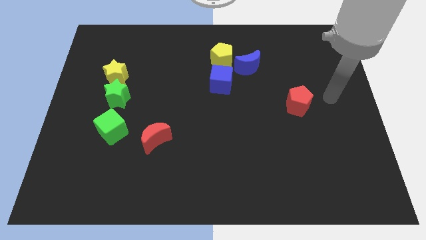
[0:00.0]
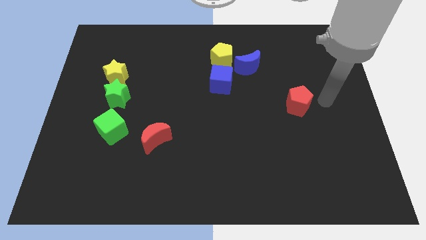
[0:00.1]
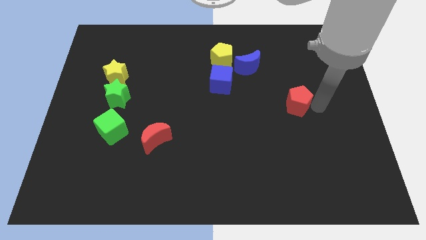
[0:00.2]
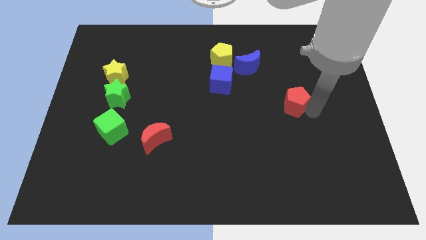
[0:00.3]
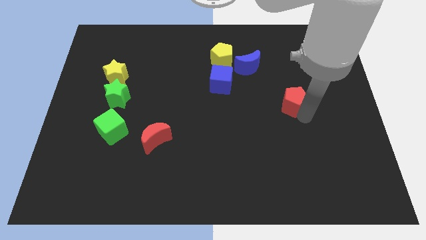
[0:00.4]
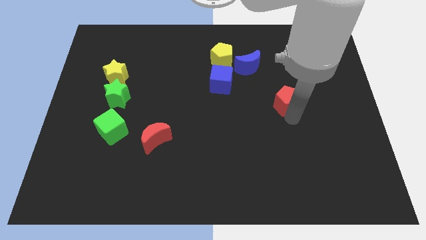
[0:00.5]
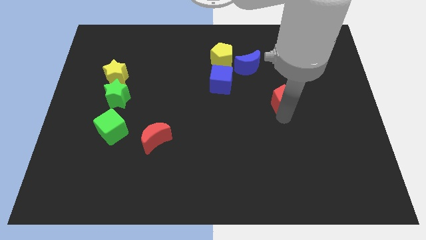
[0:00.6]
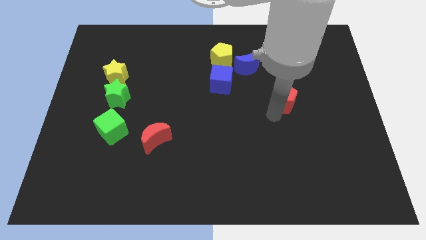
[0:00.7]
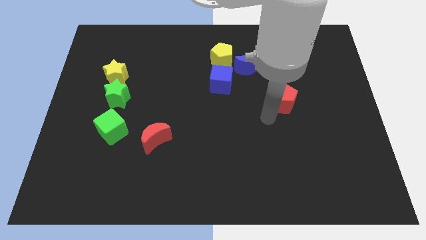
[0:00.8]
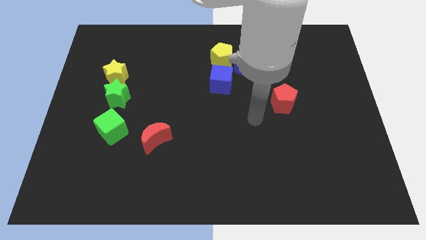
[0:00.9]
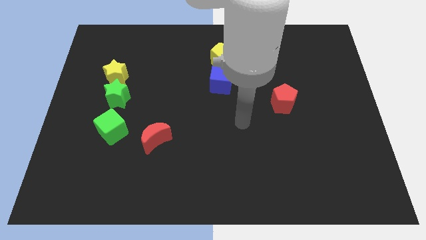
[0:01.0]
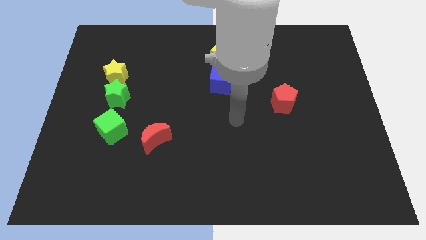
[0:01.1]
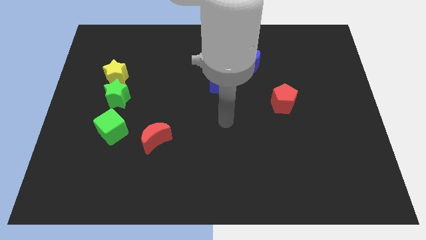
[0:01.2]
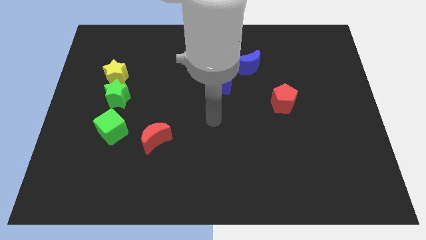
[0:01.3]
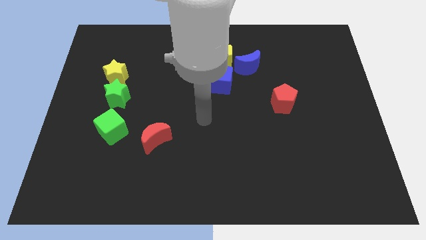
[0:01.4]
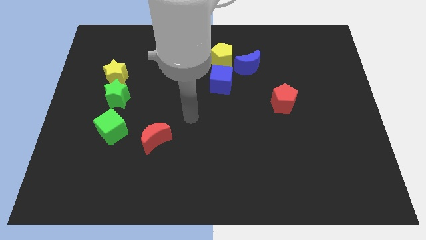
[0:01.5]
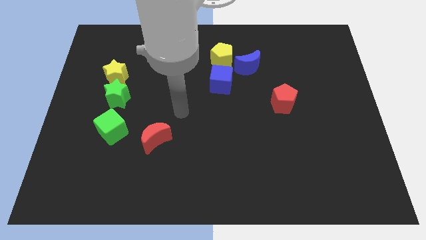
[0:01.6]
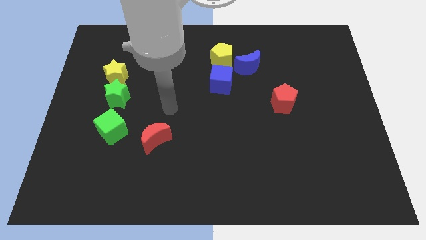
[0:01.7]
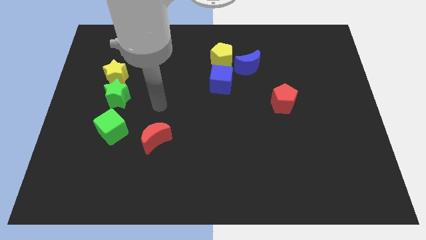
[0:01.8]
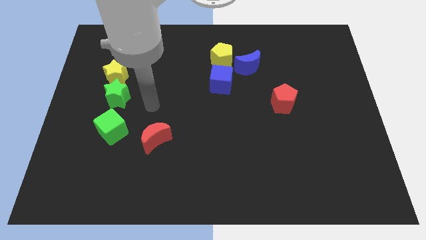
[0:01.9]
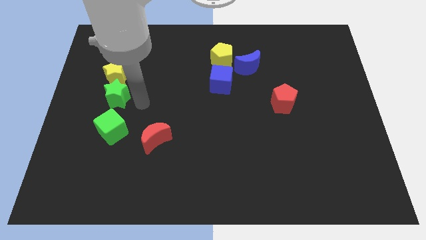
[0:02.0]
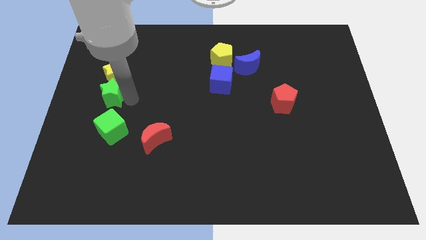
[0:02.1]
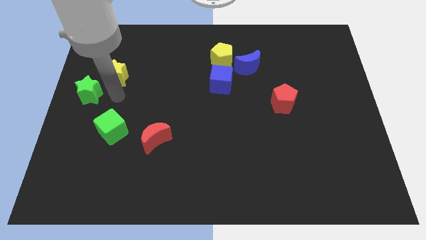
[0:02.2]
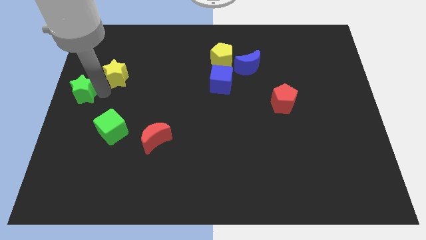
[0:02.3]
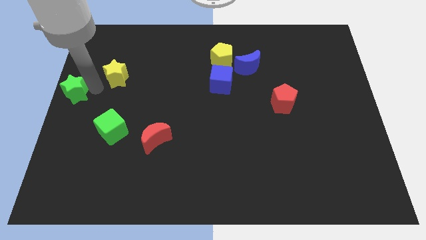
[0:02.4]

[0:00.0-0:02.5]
pull the yellow star apart from the green star

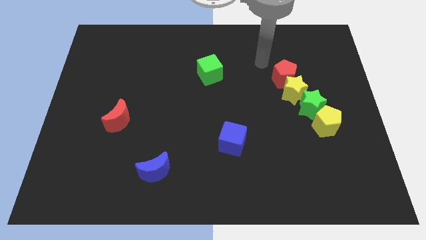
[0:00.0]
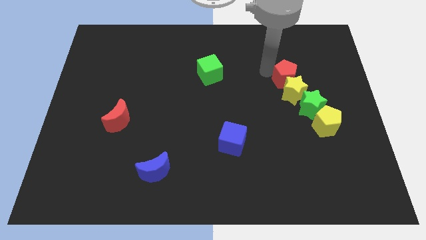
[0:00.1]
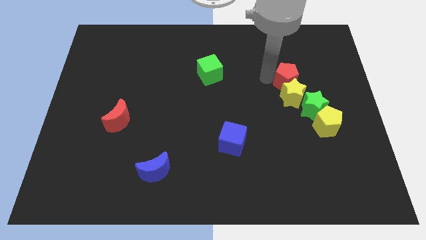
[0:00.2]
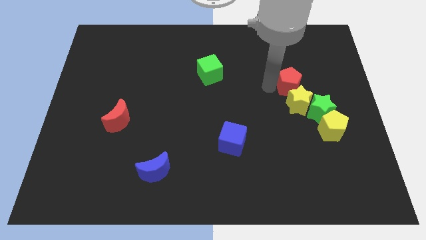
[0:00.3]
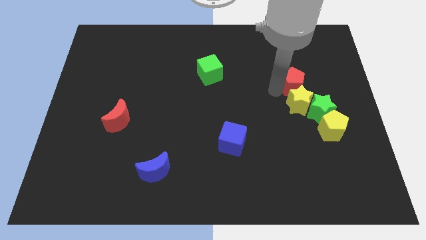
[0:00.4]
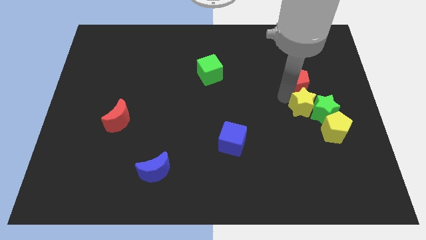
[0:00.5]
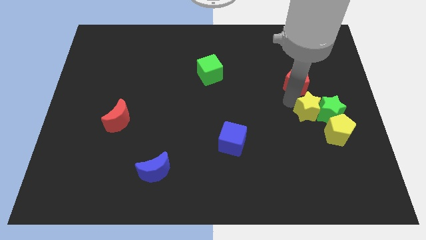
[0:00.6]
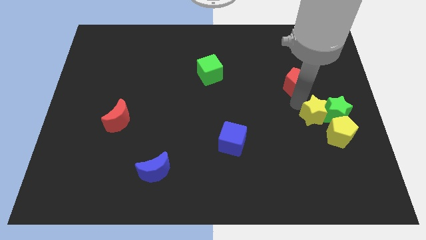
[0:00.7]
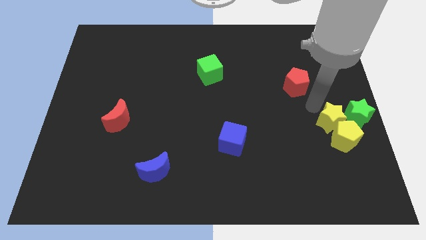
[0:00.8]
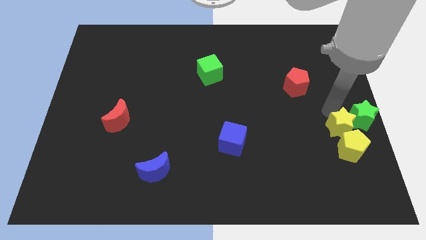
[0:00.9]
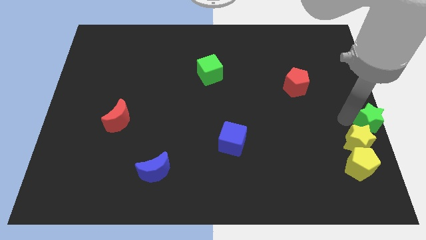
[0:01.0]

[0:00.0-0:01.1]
separate the yellow pentagon from the green star

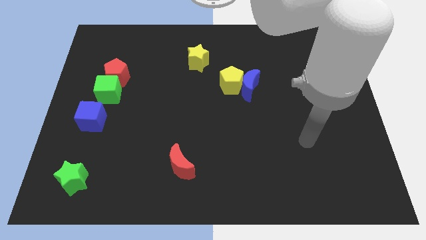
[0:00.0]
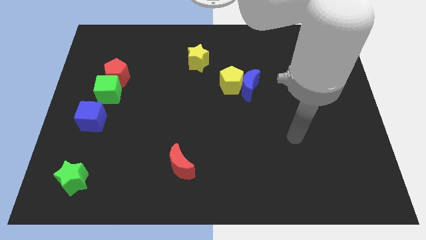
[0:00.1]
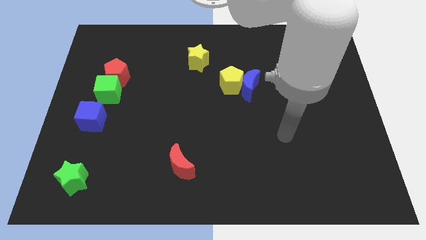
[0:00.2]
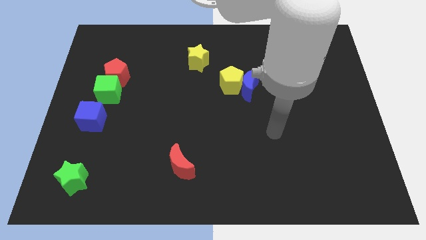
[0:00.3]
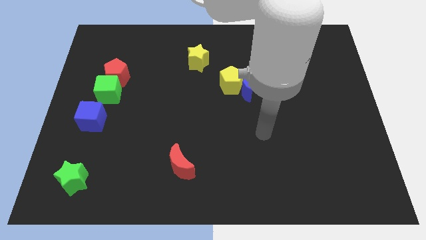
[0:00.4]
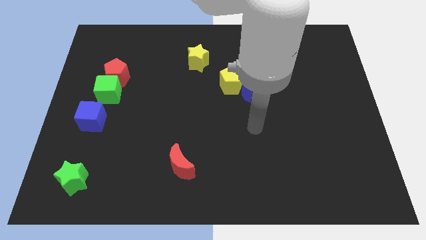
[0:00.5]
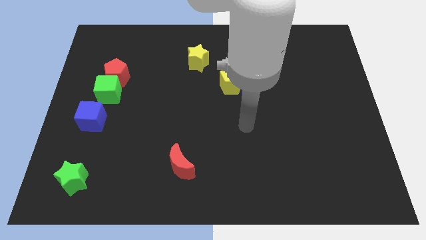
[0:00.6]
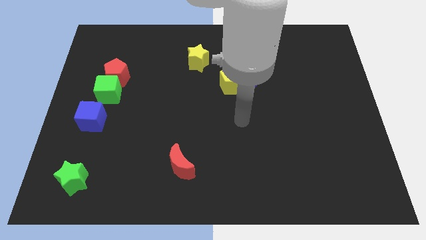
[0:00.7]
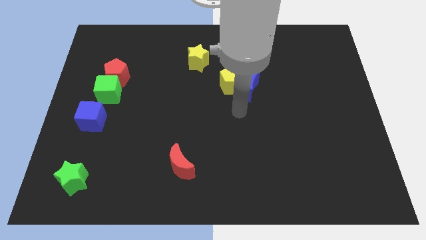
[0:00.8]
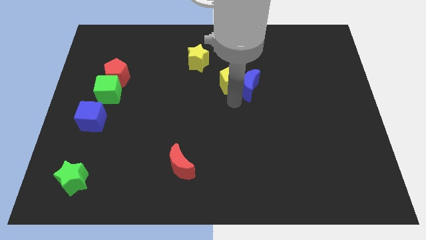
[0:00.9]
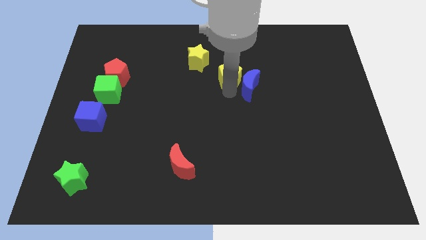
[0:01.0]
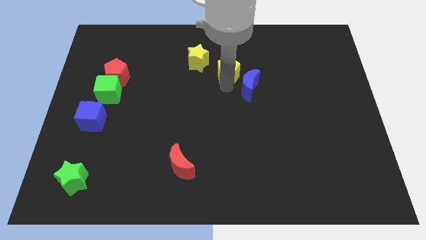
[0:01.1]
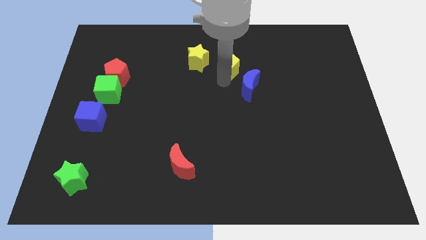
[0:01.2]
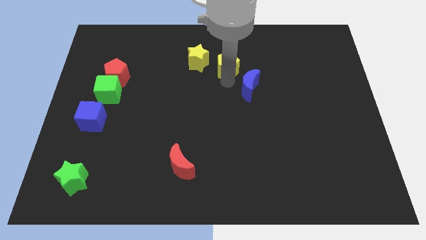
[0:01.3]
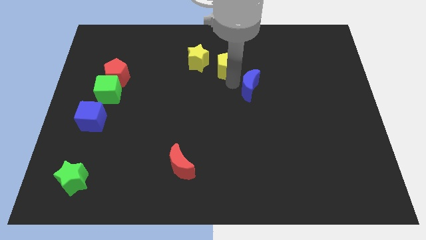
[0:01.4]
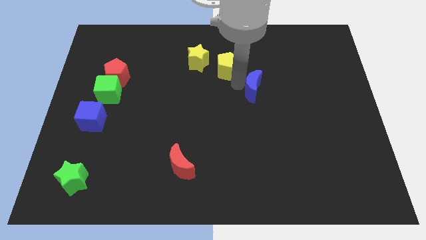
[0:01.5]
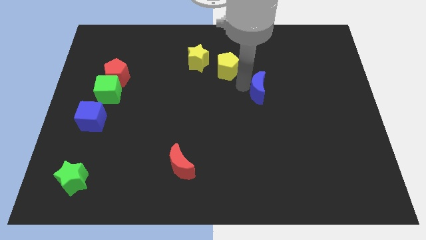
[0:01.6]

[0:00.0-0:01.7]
separate the blue moon from the yellow pentagon

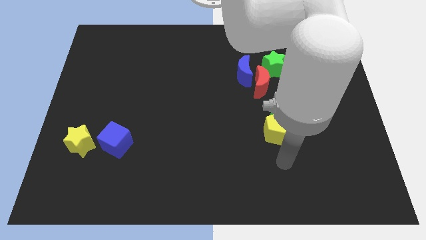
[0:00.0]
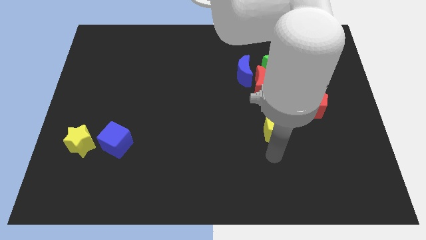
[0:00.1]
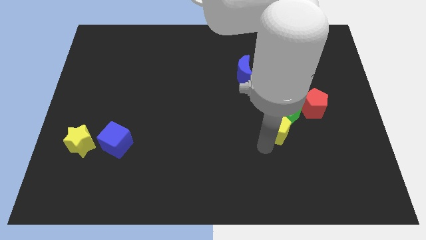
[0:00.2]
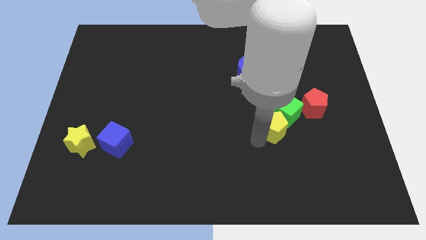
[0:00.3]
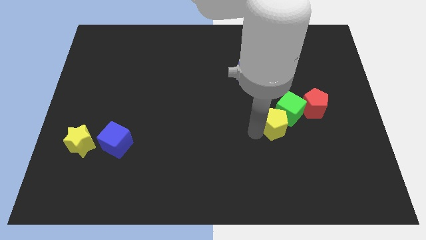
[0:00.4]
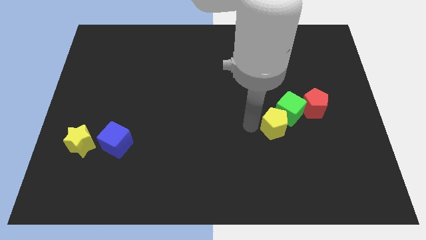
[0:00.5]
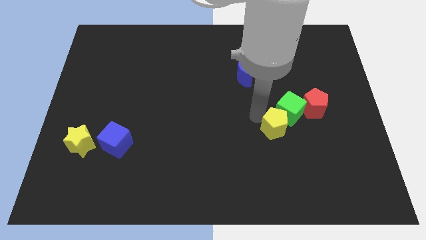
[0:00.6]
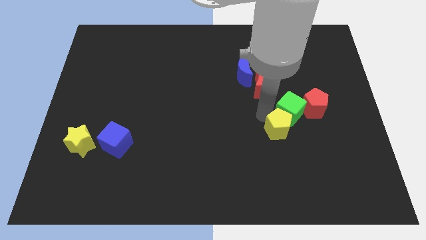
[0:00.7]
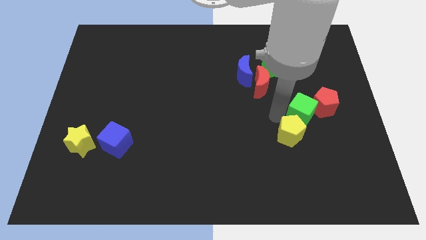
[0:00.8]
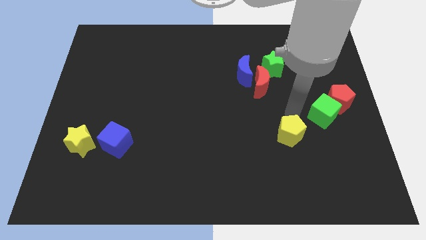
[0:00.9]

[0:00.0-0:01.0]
separate the yellow pentagon from the green cube

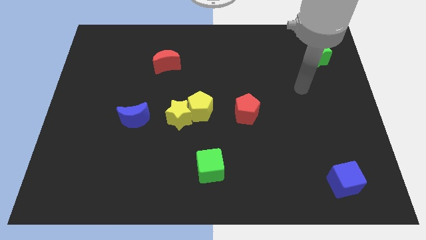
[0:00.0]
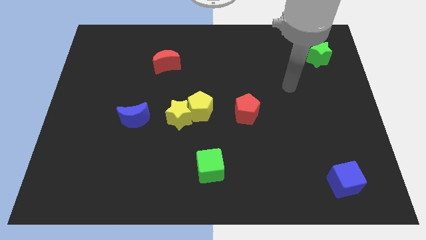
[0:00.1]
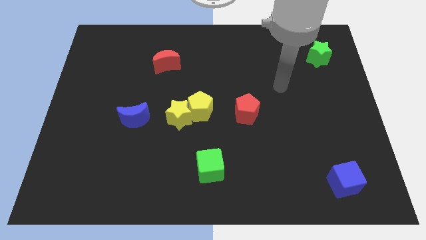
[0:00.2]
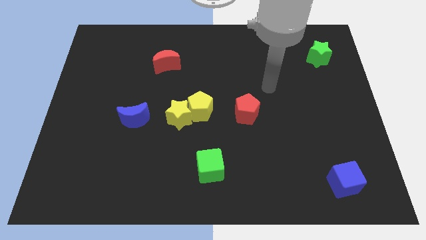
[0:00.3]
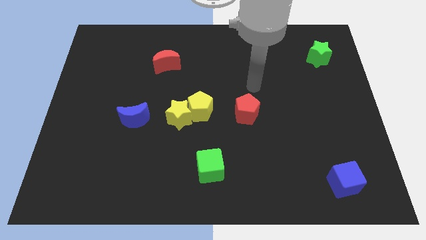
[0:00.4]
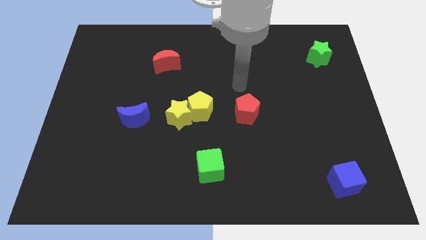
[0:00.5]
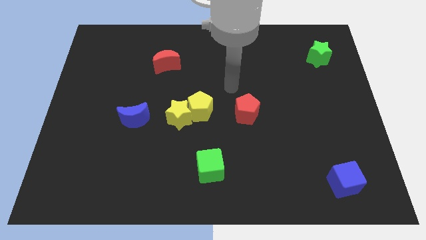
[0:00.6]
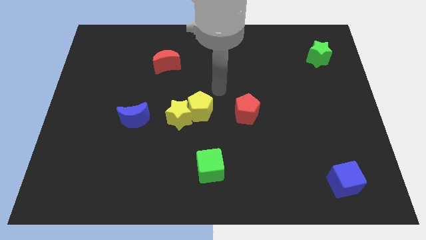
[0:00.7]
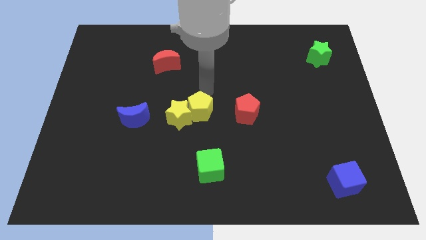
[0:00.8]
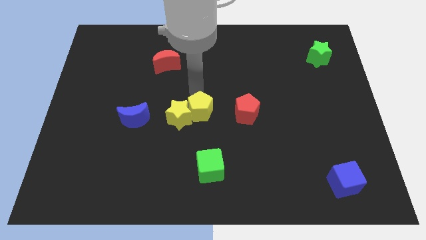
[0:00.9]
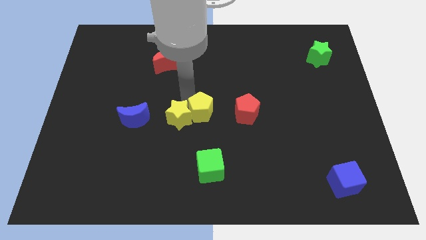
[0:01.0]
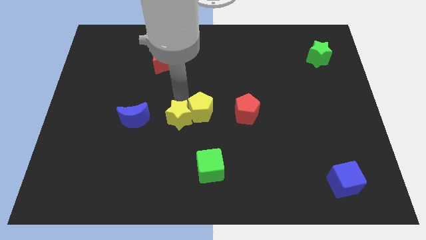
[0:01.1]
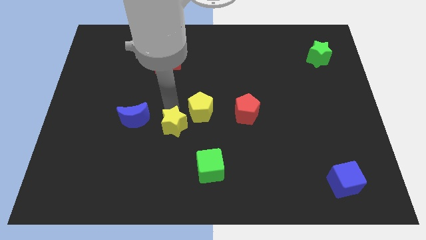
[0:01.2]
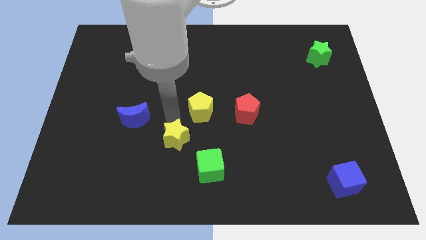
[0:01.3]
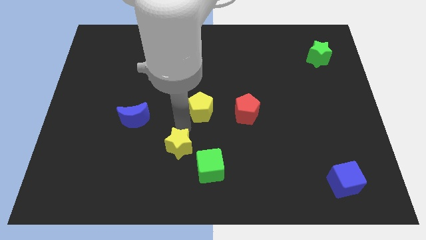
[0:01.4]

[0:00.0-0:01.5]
separate the yellow pentagon from the yellow star

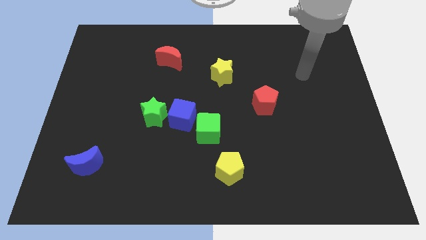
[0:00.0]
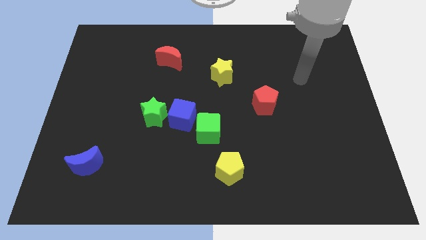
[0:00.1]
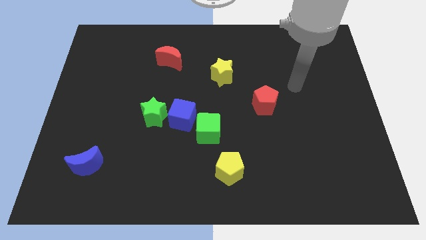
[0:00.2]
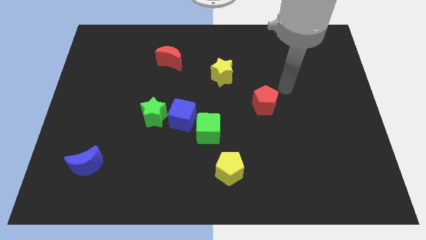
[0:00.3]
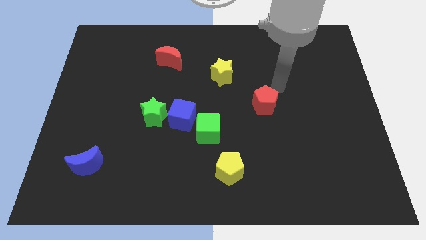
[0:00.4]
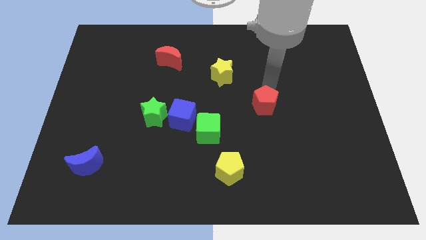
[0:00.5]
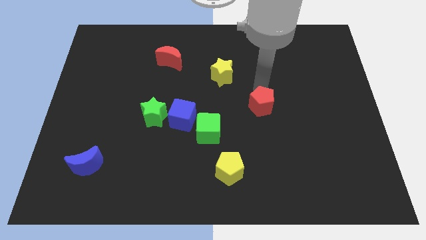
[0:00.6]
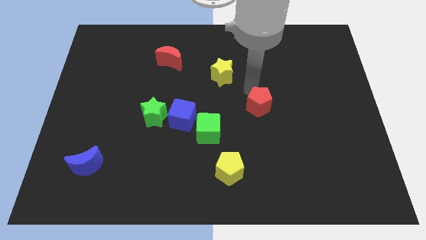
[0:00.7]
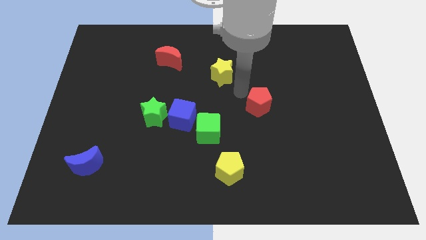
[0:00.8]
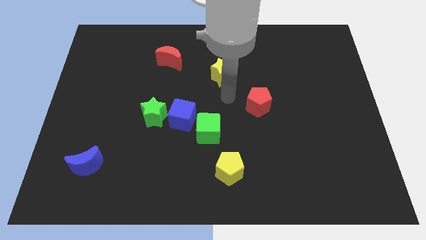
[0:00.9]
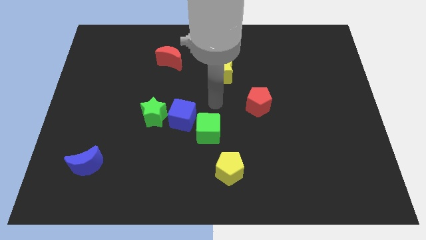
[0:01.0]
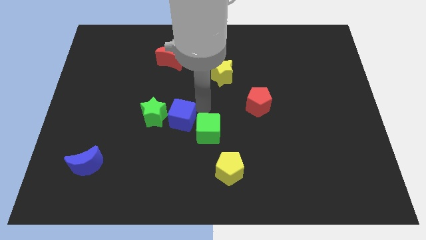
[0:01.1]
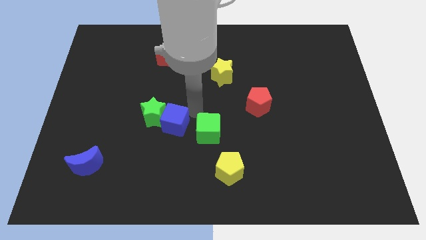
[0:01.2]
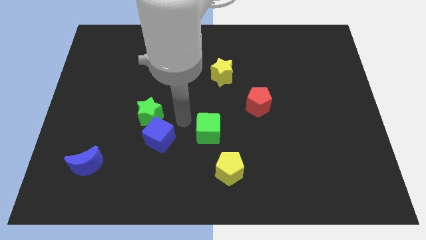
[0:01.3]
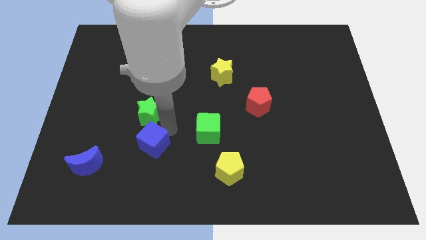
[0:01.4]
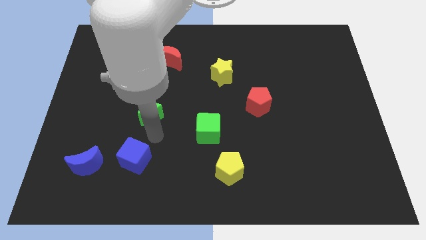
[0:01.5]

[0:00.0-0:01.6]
pull the green star apart from the blue cube
